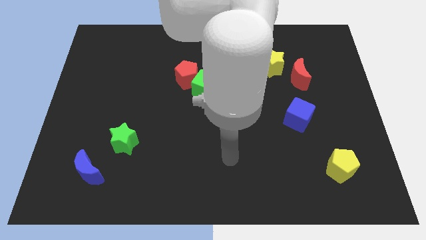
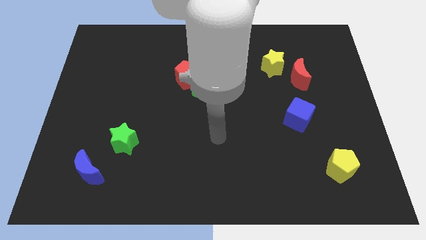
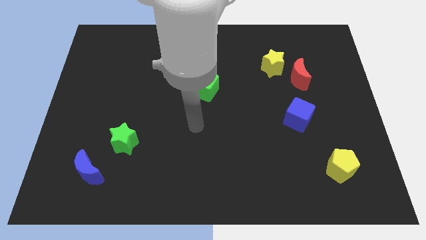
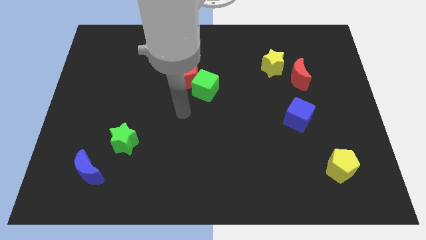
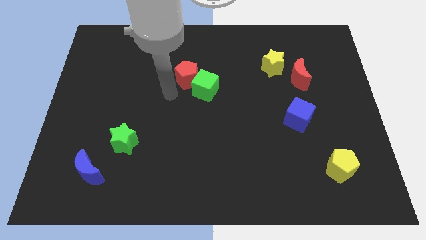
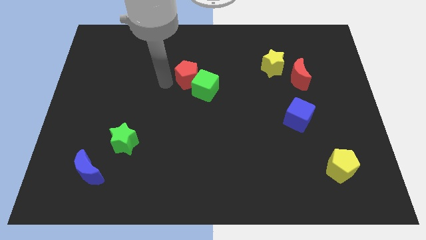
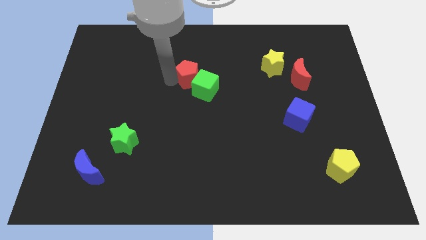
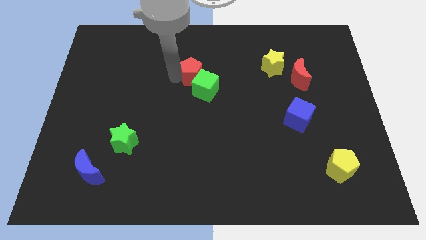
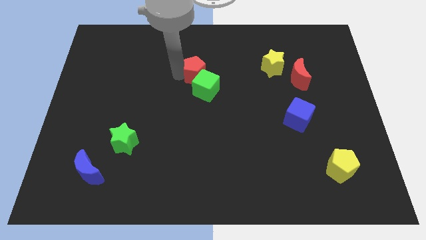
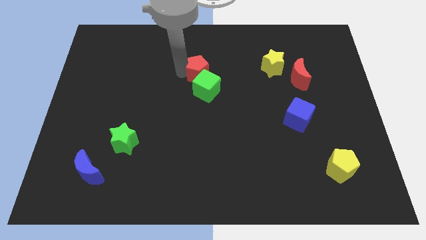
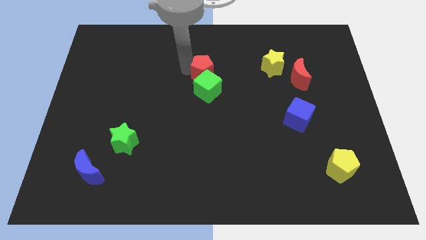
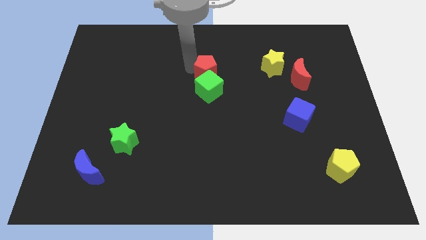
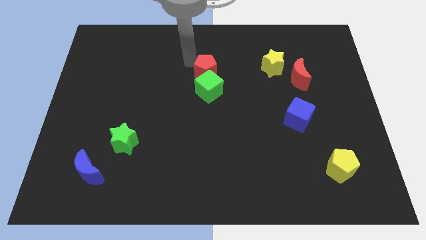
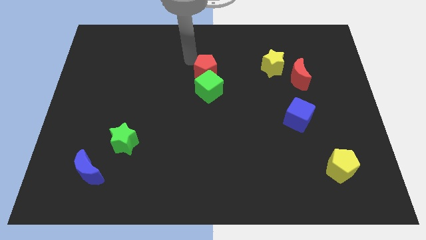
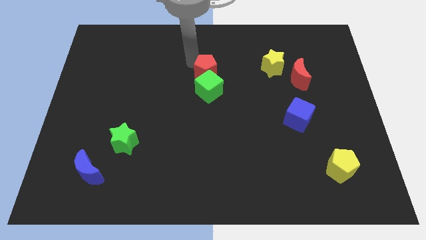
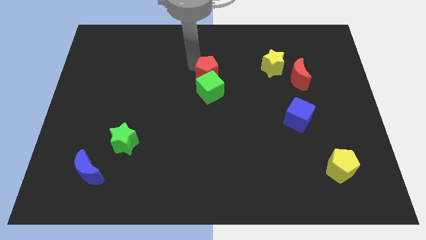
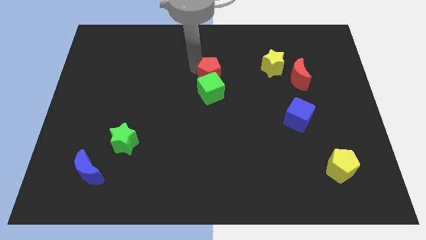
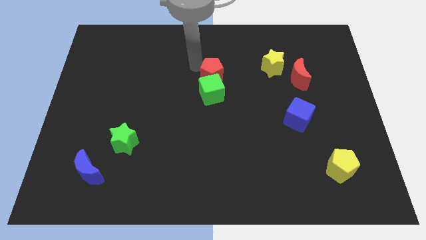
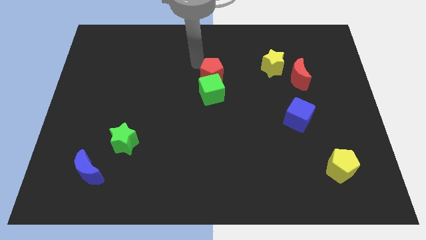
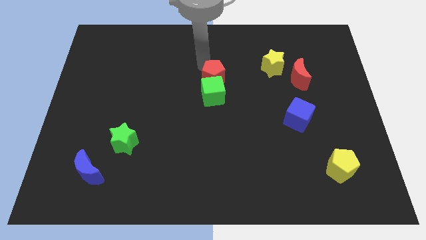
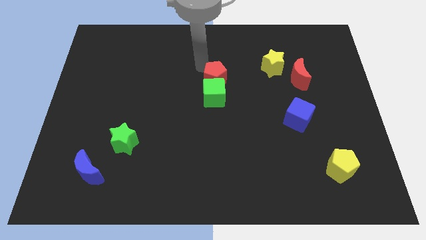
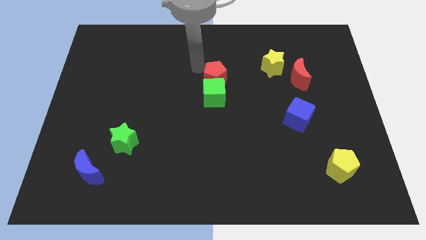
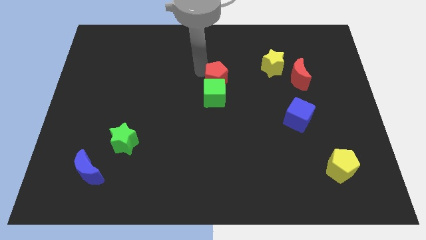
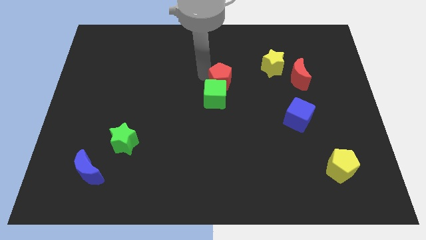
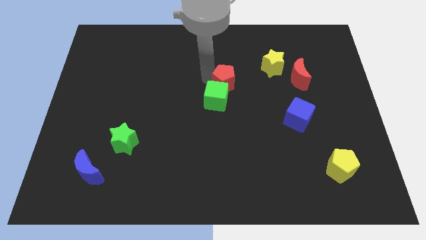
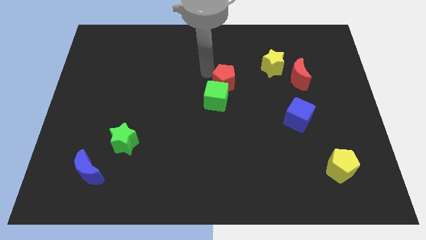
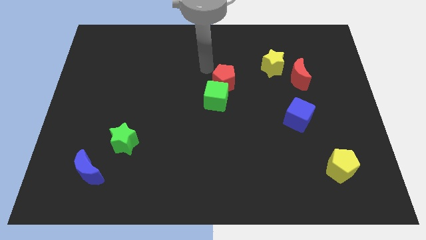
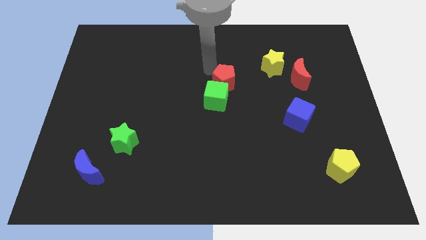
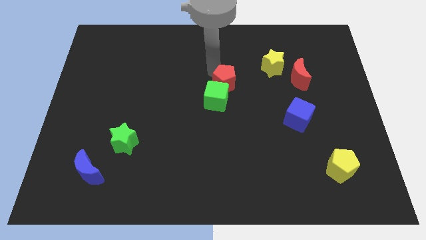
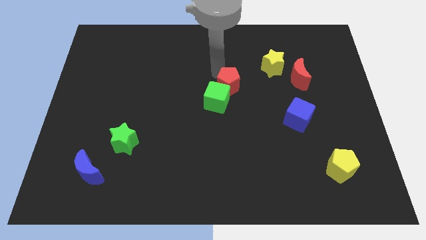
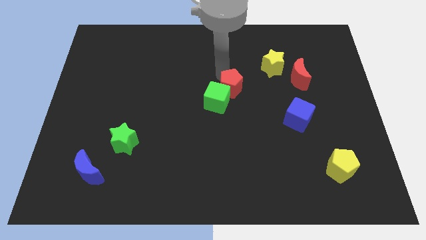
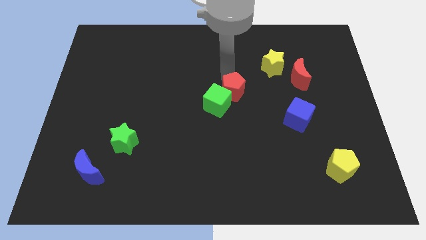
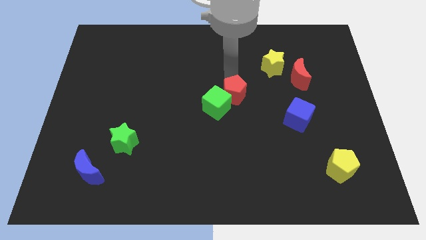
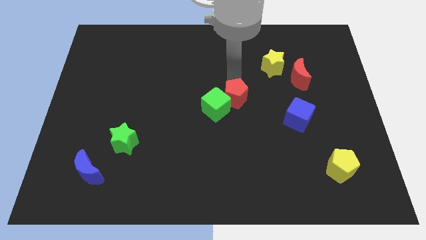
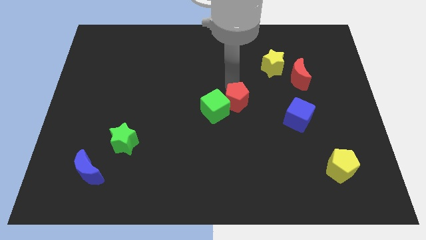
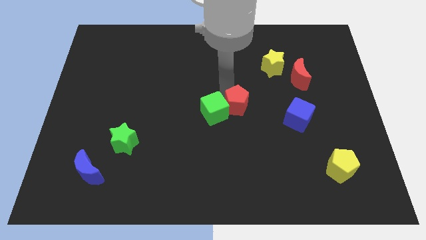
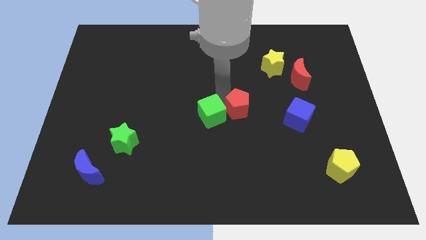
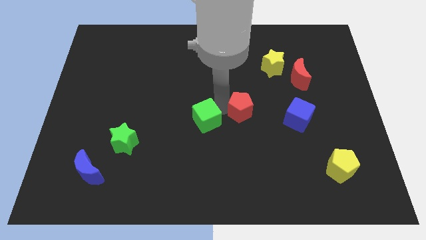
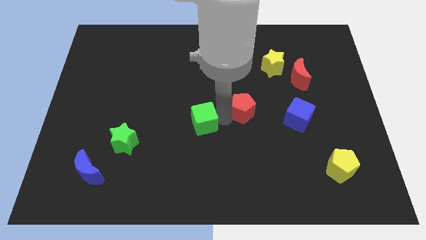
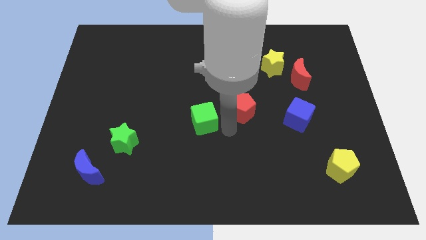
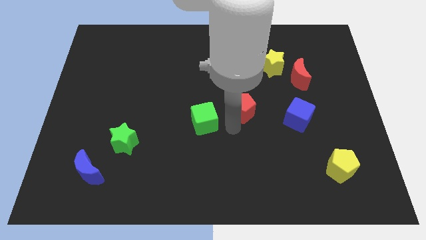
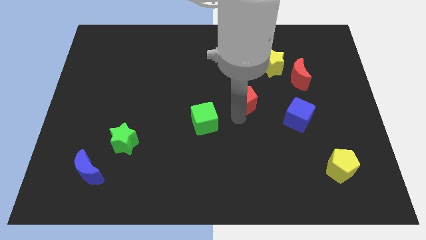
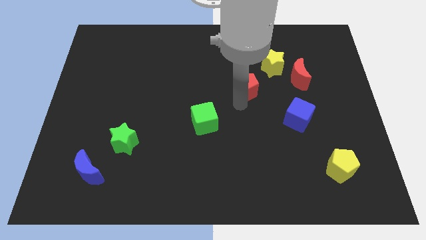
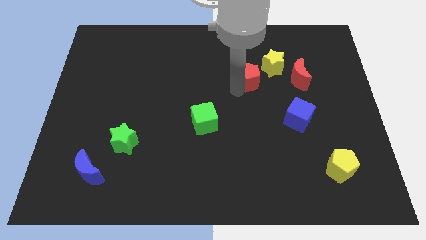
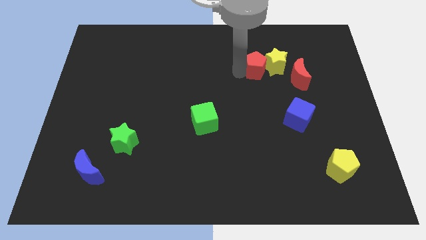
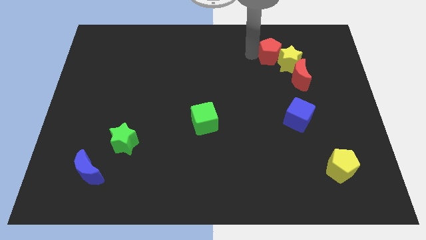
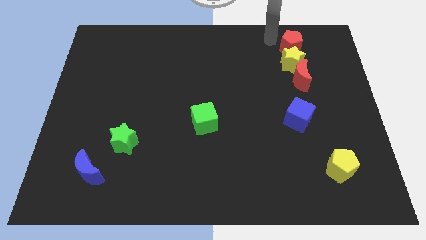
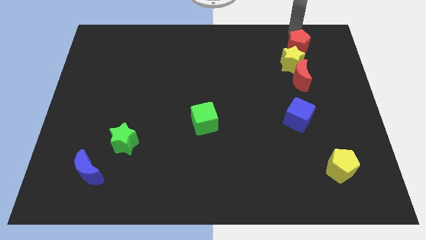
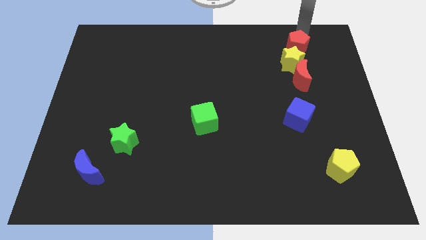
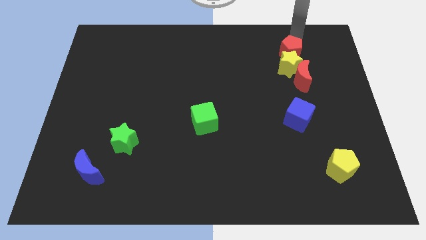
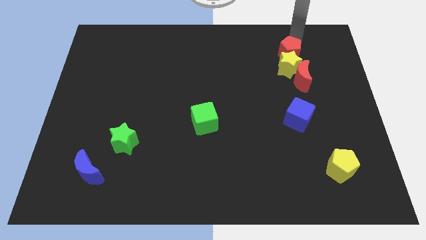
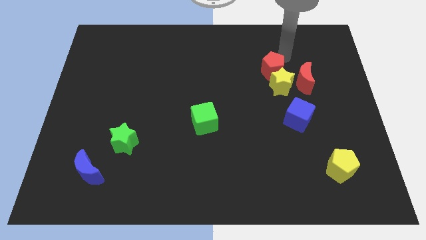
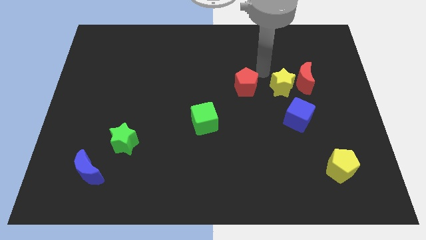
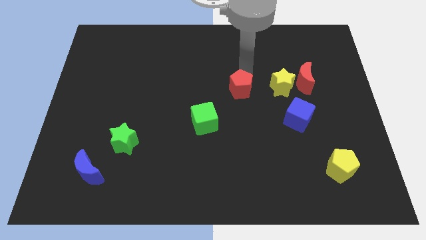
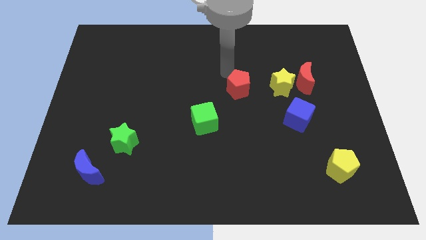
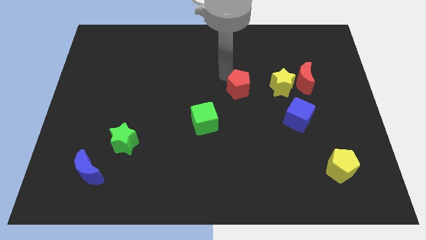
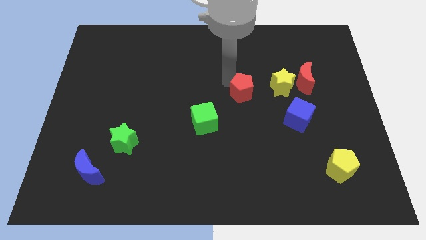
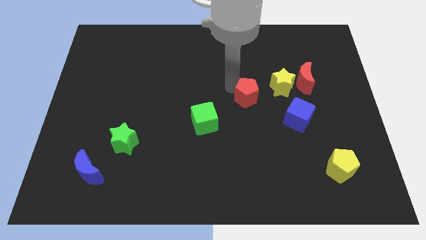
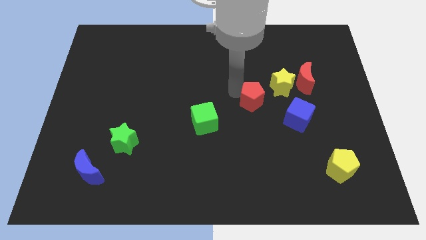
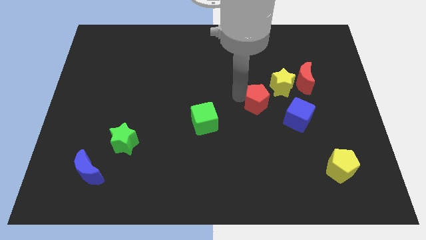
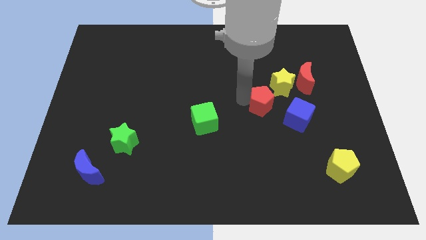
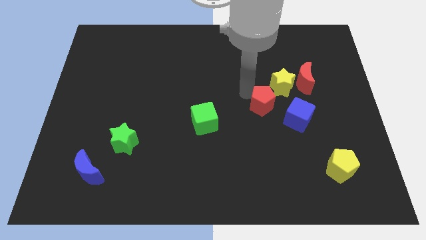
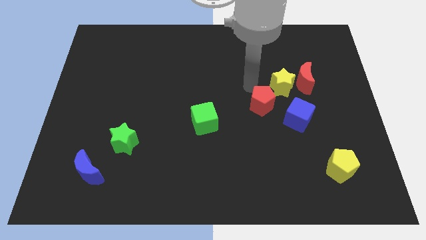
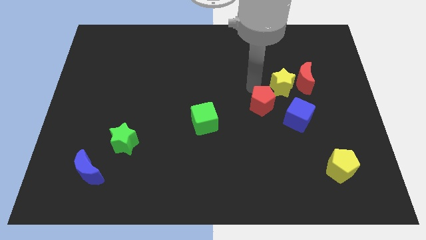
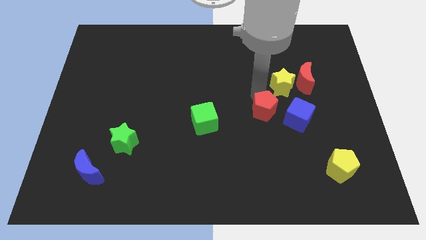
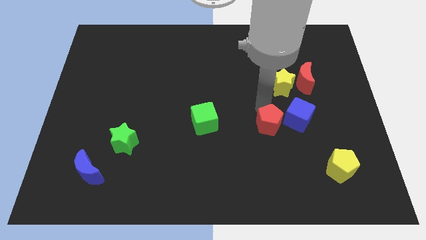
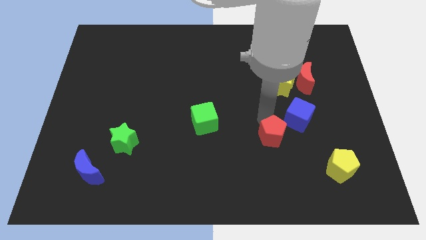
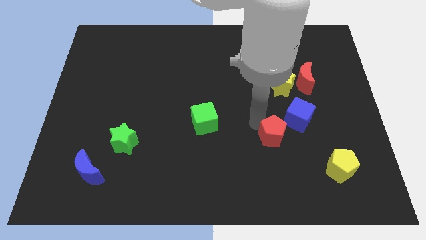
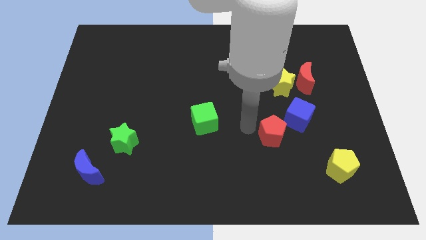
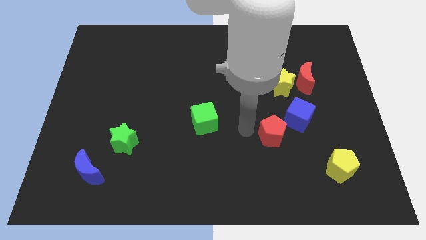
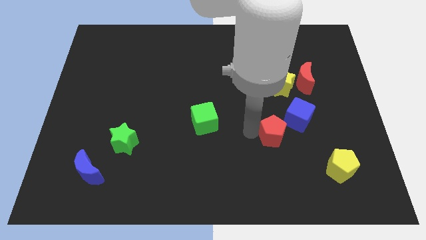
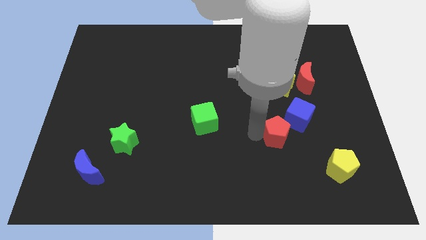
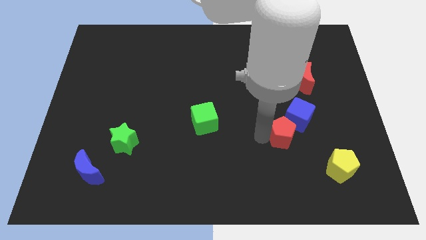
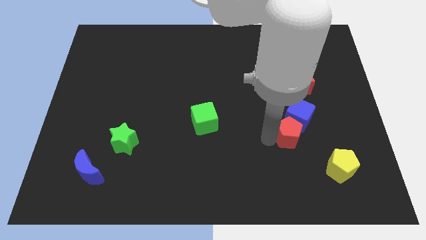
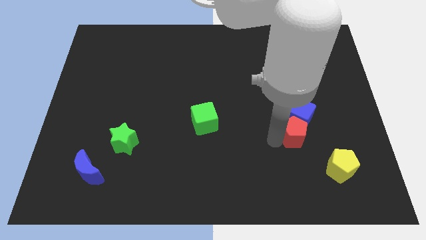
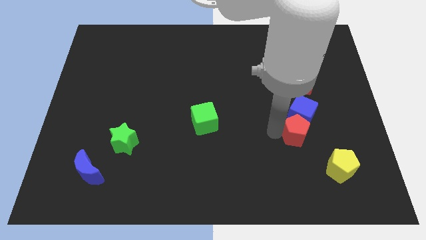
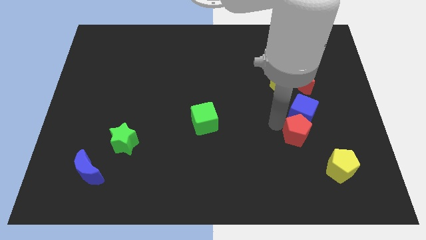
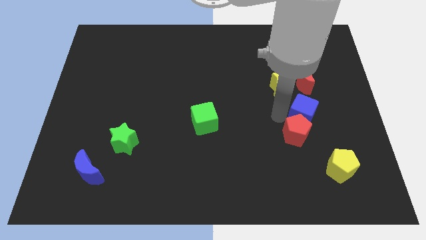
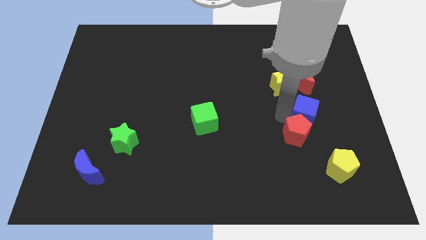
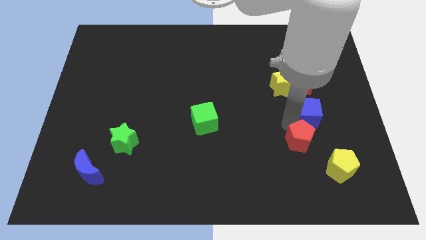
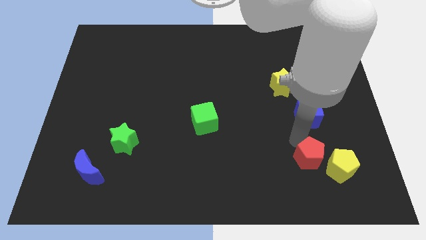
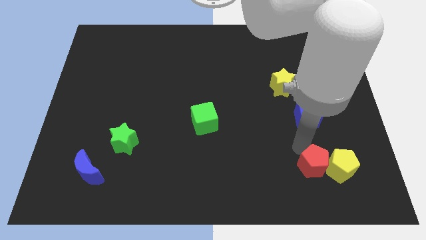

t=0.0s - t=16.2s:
move the red pentagon close to the yellow pentagon
